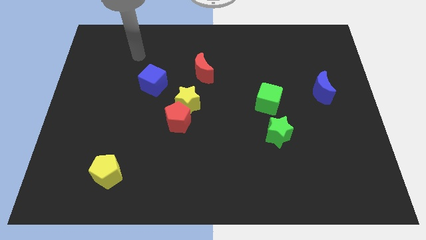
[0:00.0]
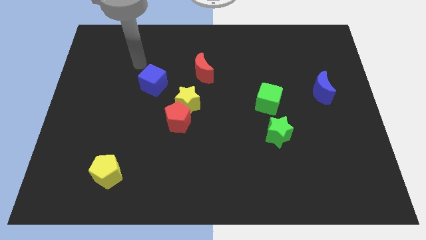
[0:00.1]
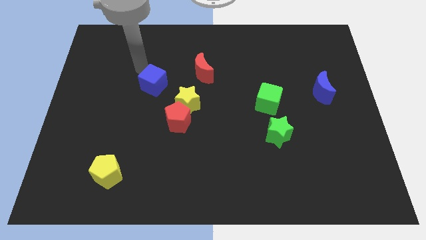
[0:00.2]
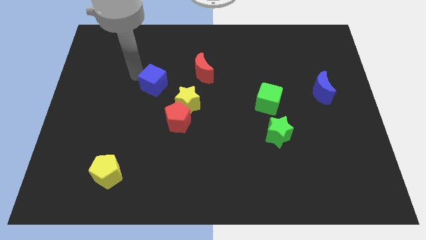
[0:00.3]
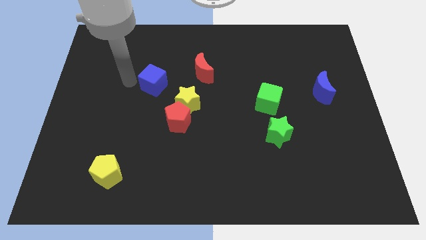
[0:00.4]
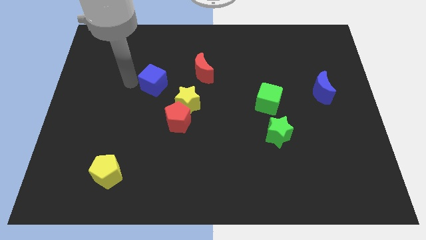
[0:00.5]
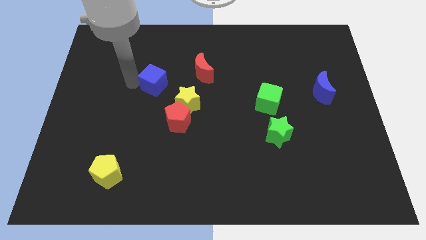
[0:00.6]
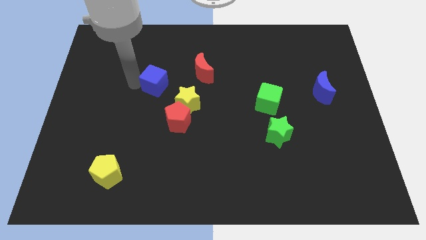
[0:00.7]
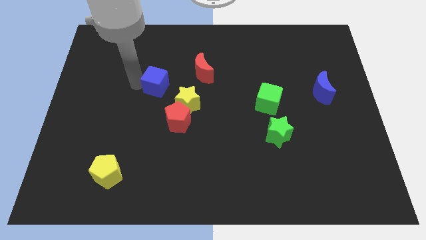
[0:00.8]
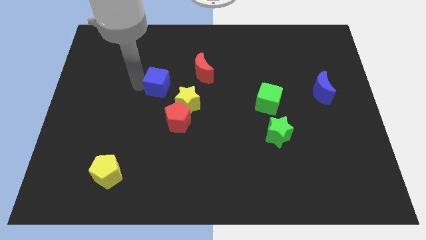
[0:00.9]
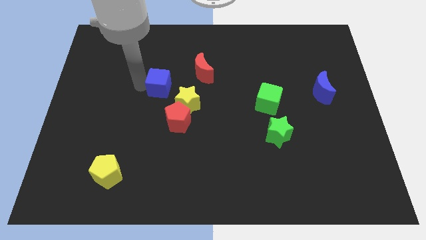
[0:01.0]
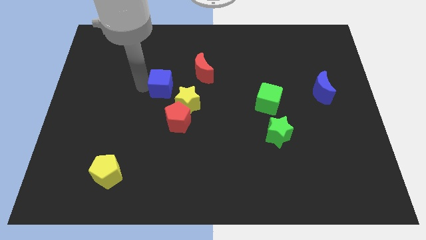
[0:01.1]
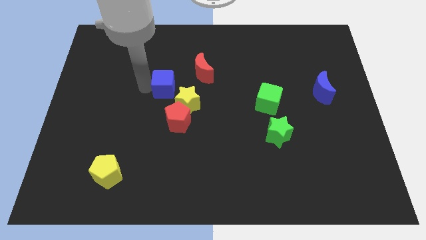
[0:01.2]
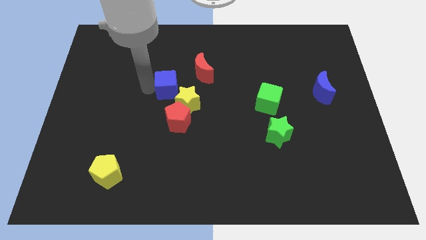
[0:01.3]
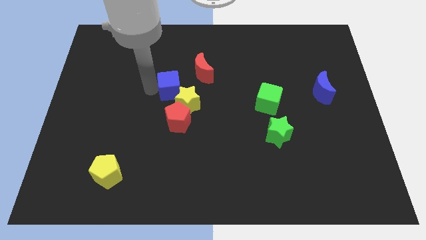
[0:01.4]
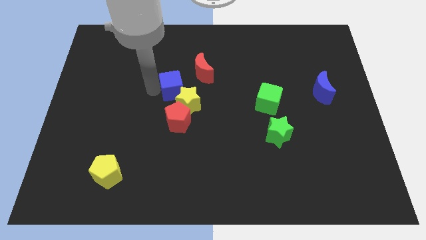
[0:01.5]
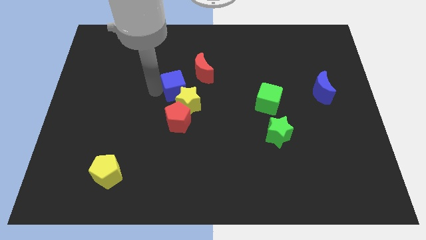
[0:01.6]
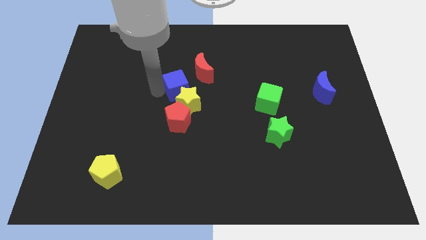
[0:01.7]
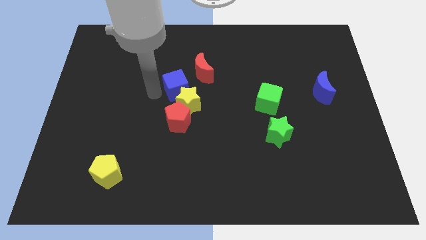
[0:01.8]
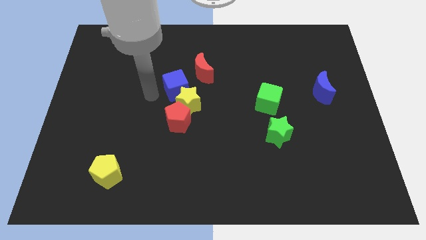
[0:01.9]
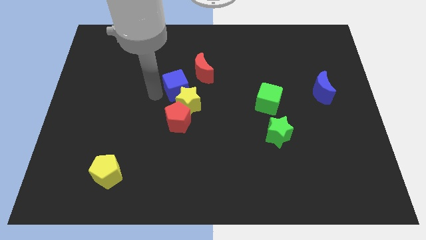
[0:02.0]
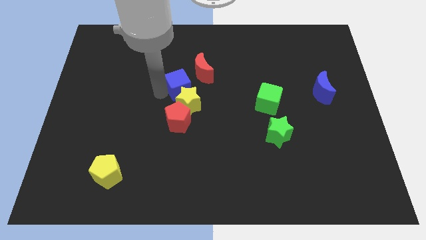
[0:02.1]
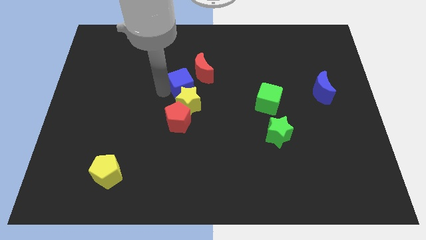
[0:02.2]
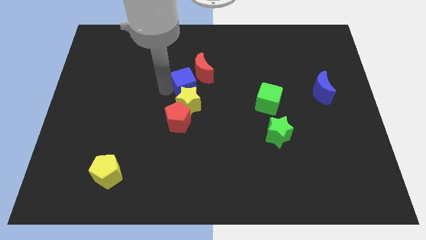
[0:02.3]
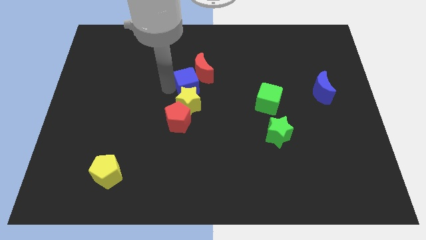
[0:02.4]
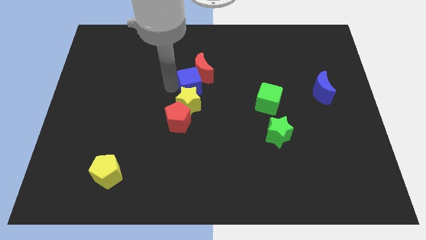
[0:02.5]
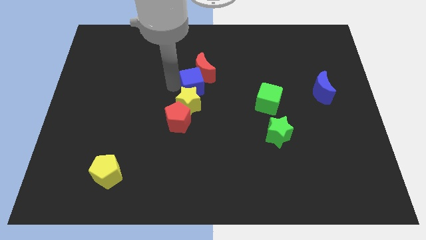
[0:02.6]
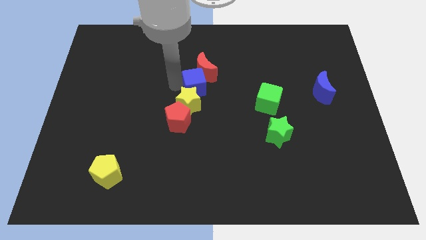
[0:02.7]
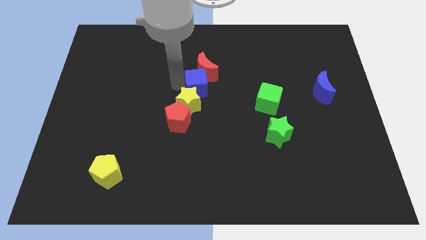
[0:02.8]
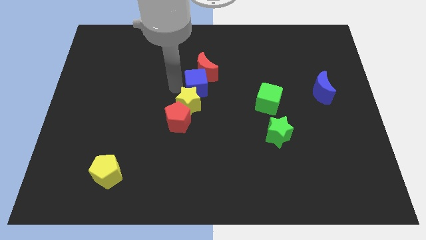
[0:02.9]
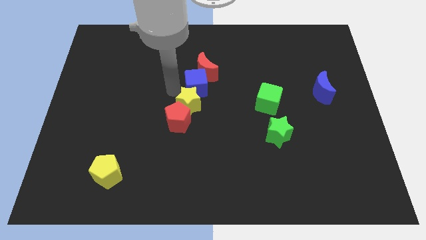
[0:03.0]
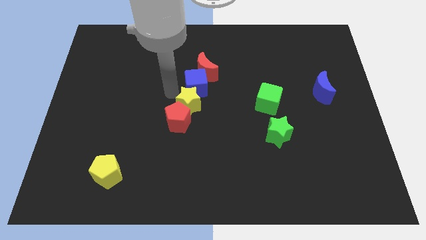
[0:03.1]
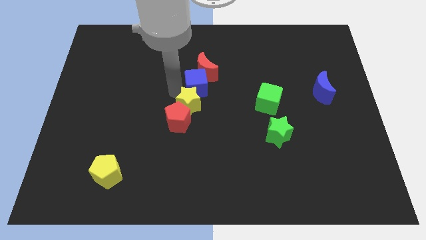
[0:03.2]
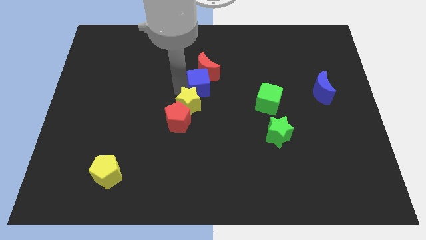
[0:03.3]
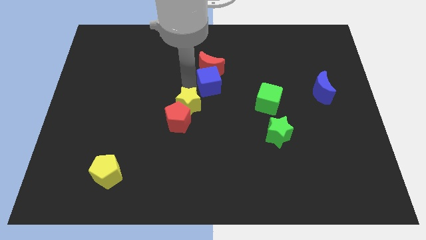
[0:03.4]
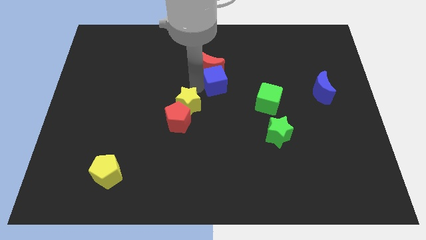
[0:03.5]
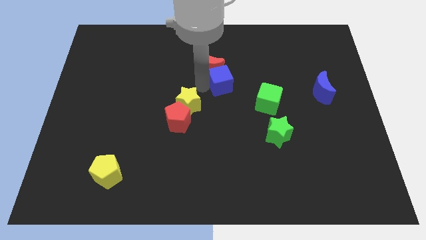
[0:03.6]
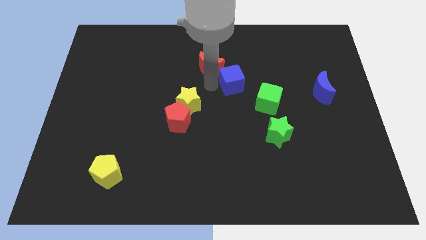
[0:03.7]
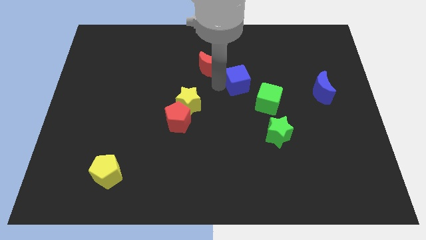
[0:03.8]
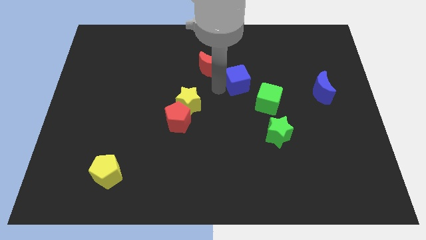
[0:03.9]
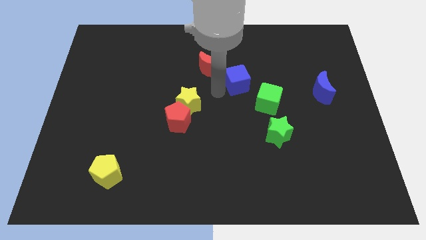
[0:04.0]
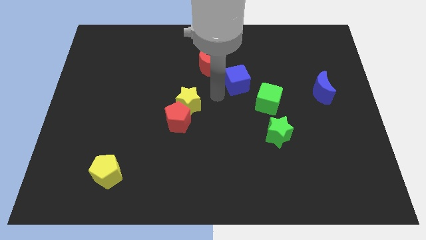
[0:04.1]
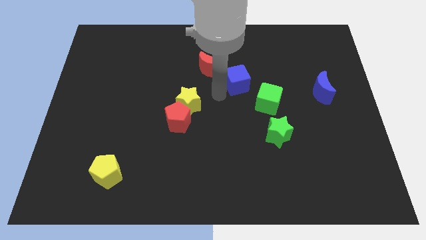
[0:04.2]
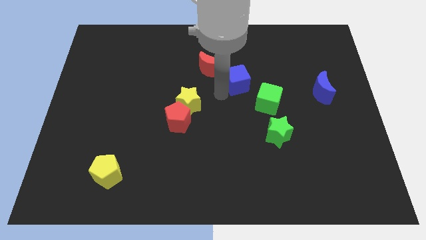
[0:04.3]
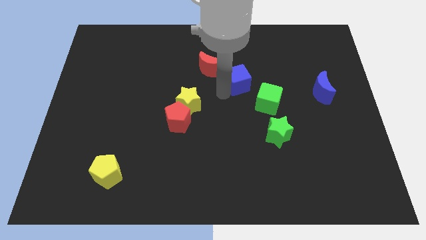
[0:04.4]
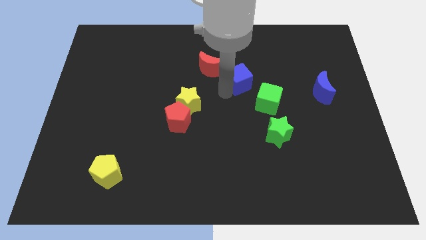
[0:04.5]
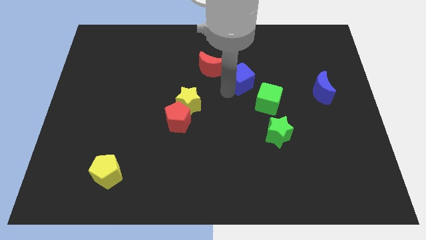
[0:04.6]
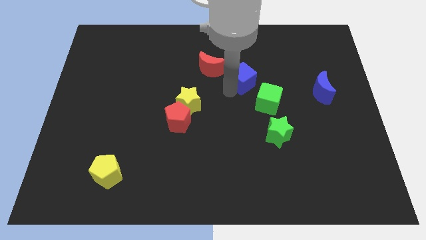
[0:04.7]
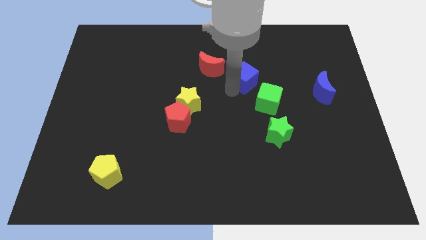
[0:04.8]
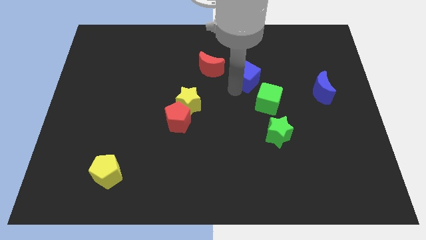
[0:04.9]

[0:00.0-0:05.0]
push the blue cube above the green cube

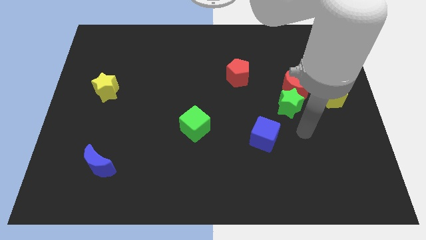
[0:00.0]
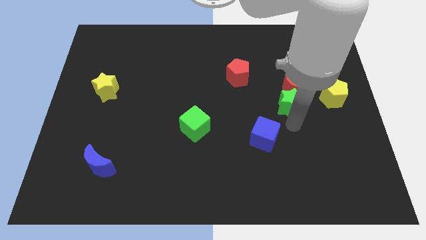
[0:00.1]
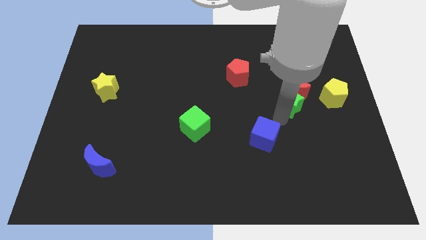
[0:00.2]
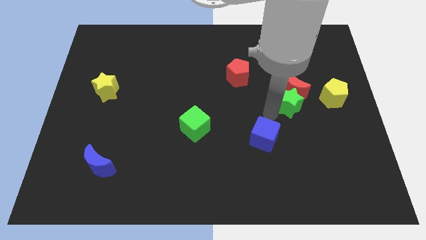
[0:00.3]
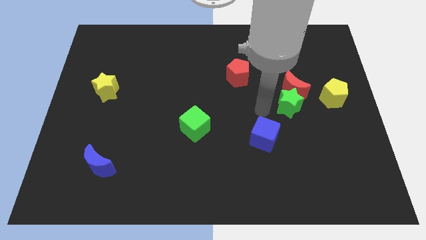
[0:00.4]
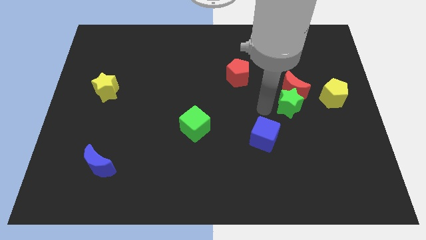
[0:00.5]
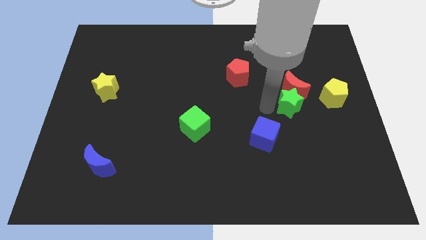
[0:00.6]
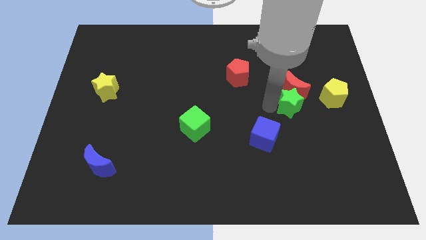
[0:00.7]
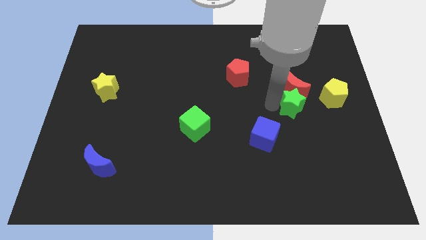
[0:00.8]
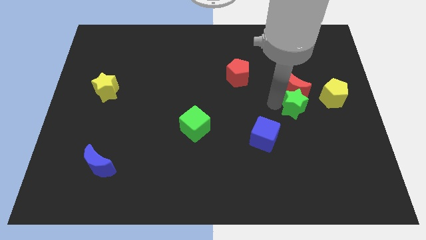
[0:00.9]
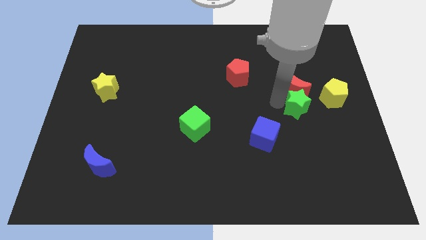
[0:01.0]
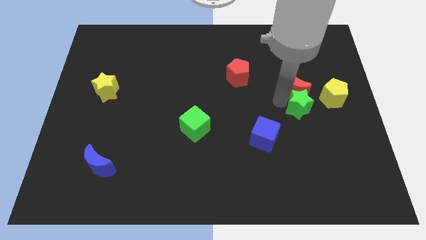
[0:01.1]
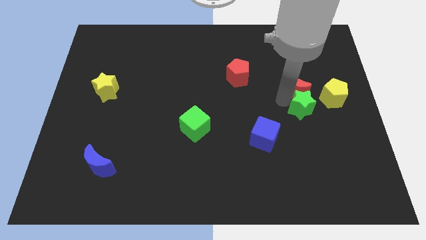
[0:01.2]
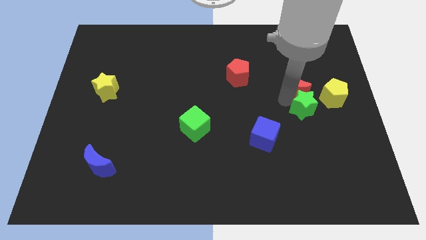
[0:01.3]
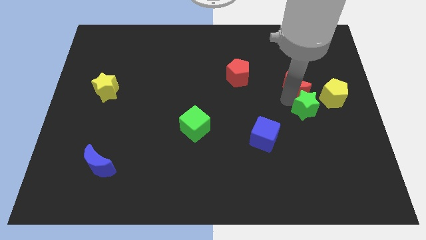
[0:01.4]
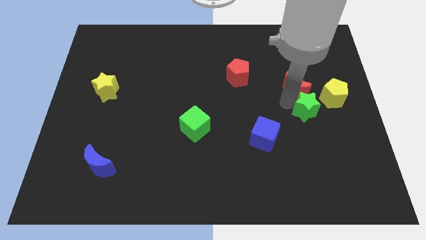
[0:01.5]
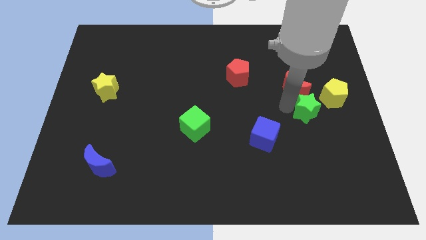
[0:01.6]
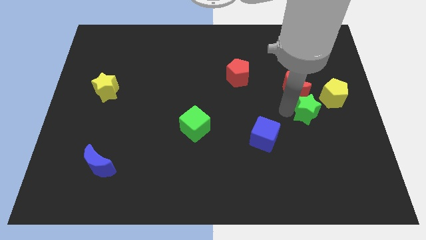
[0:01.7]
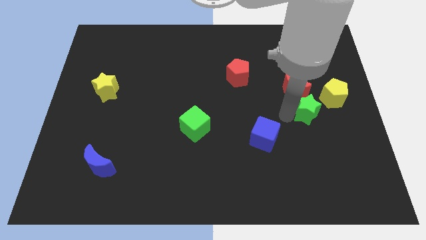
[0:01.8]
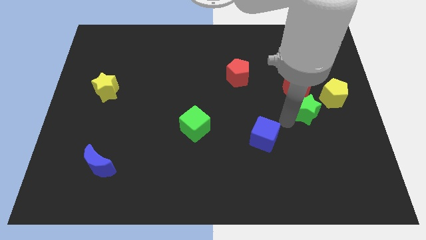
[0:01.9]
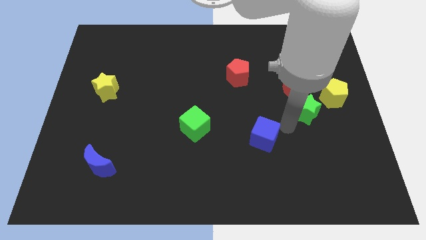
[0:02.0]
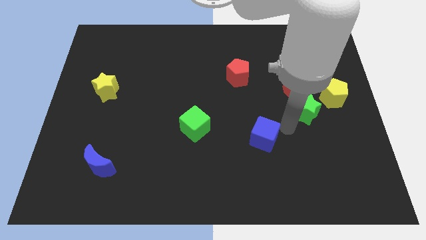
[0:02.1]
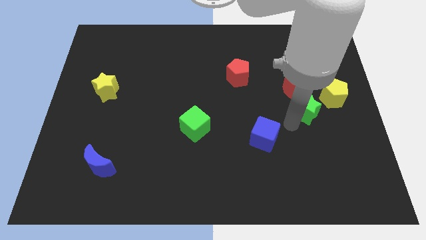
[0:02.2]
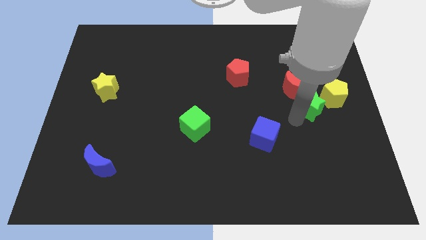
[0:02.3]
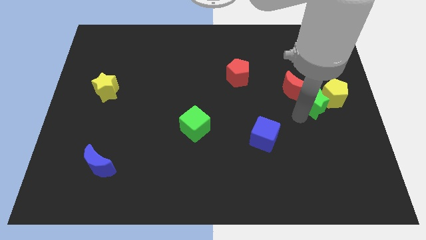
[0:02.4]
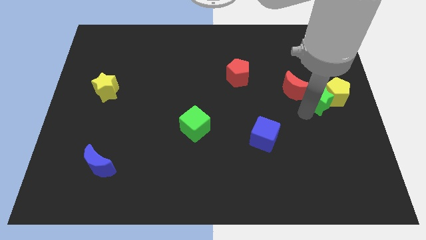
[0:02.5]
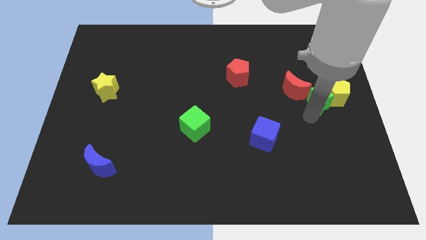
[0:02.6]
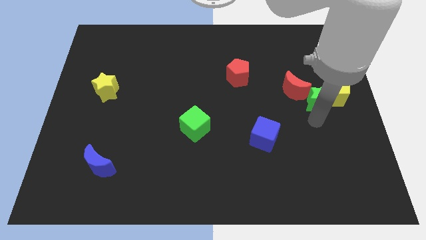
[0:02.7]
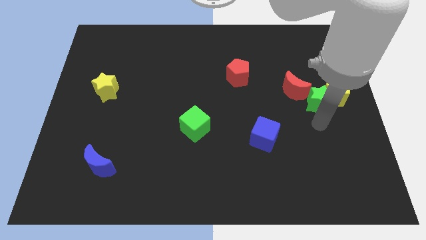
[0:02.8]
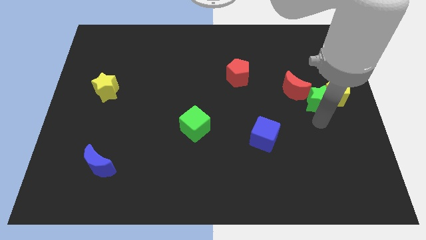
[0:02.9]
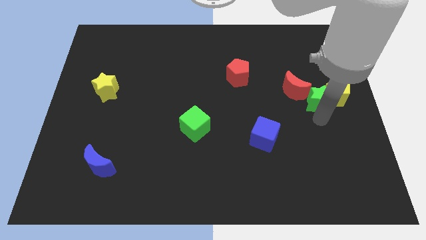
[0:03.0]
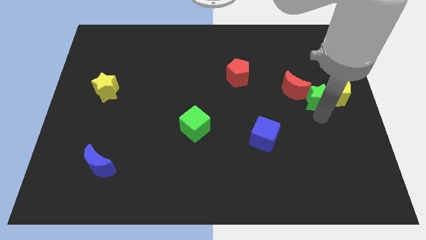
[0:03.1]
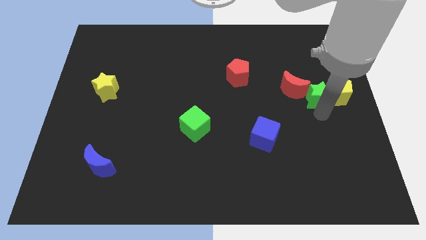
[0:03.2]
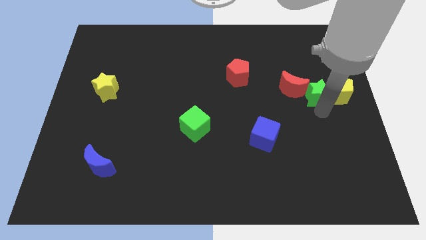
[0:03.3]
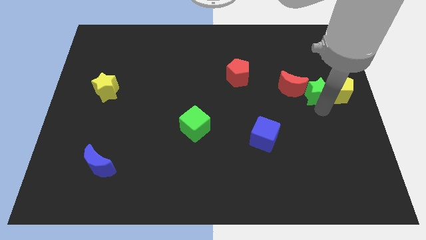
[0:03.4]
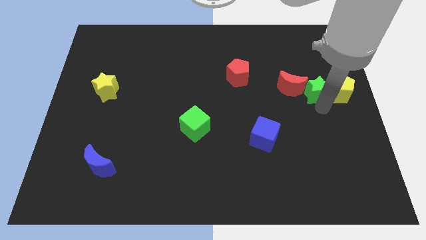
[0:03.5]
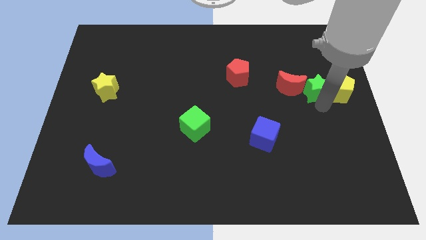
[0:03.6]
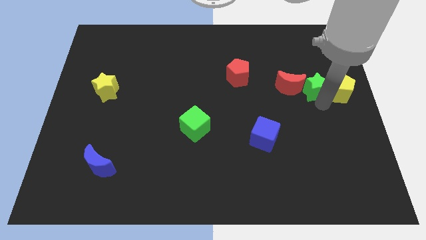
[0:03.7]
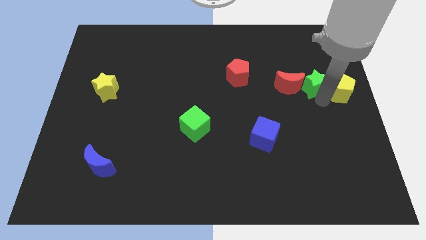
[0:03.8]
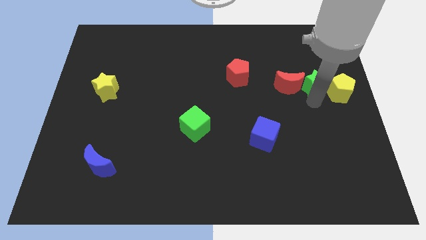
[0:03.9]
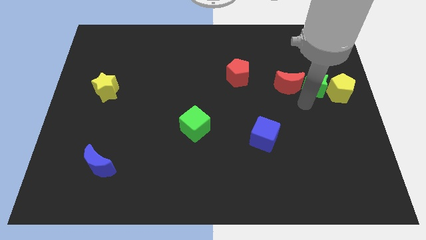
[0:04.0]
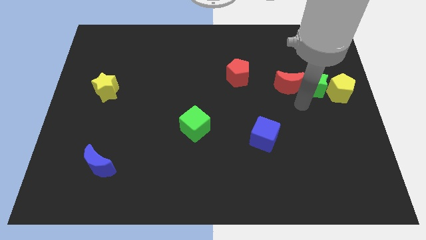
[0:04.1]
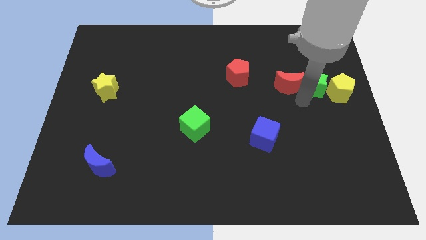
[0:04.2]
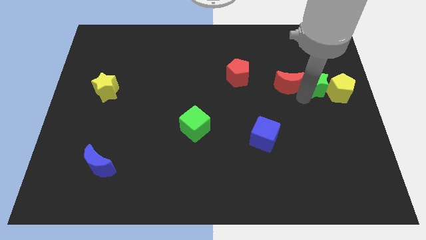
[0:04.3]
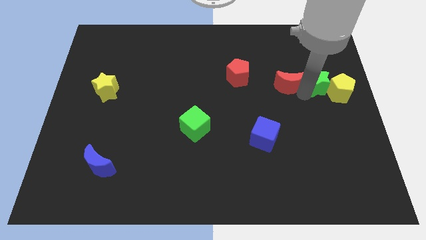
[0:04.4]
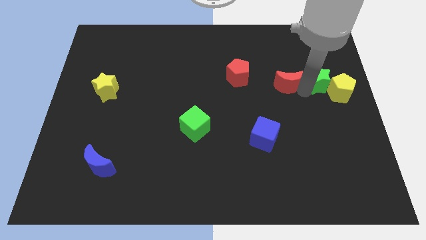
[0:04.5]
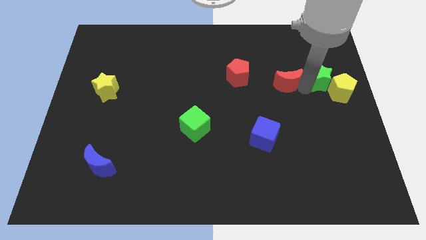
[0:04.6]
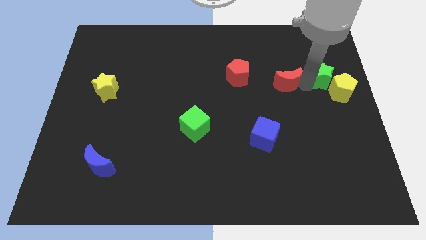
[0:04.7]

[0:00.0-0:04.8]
put the green star to the top side of the yellow pentagon
